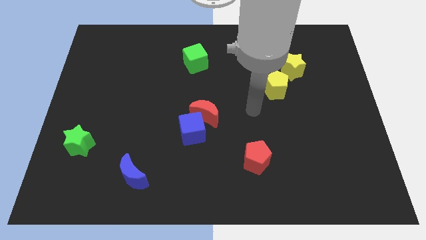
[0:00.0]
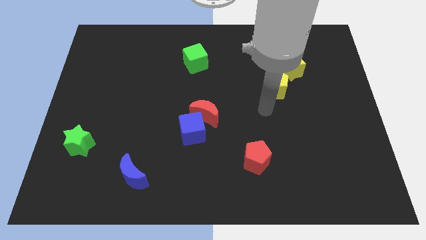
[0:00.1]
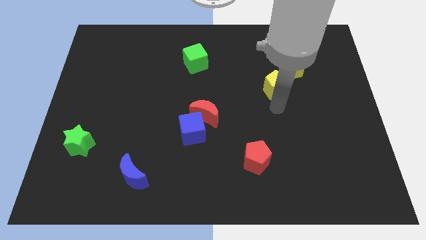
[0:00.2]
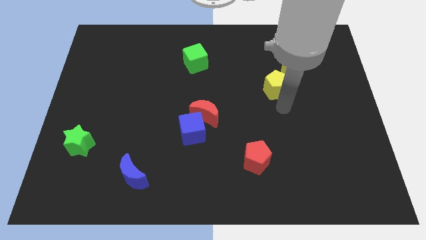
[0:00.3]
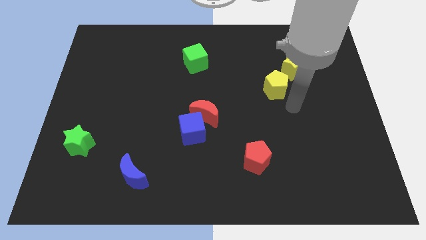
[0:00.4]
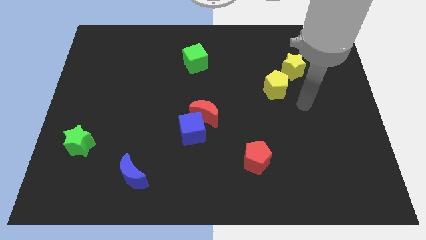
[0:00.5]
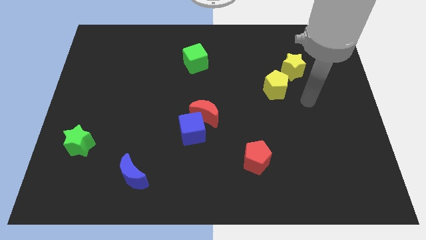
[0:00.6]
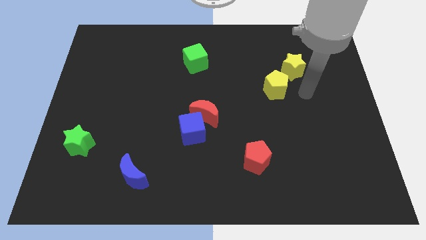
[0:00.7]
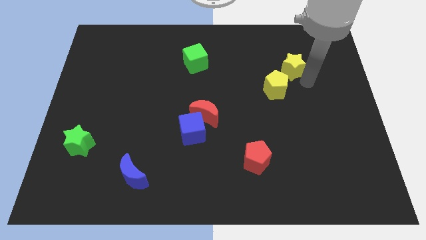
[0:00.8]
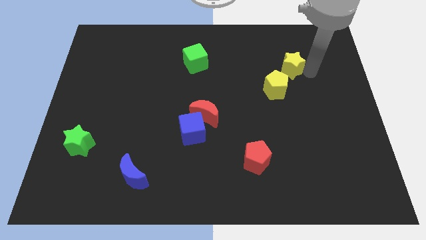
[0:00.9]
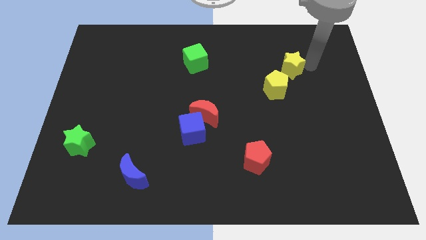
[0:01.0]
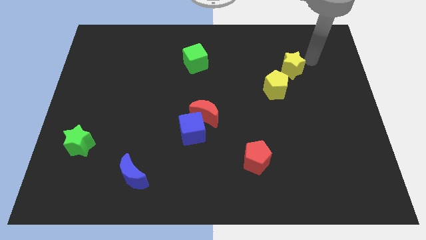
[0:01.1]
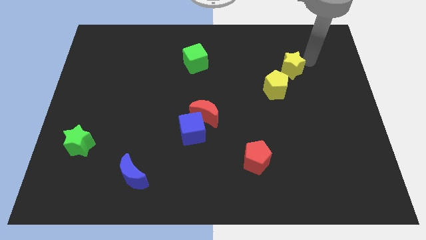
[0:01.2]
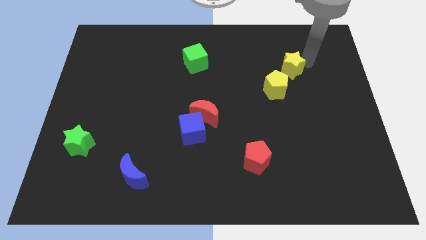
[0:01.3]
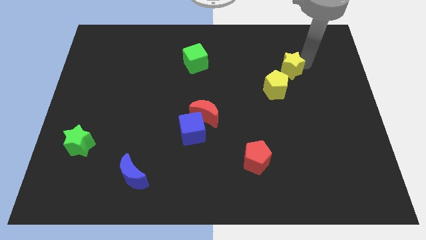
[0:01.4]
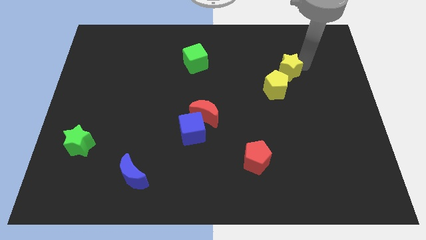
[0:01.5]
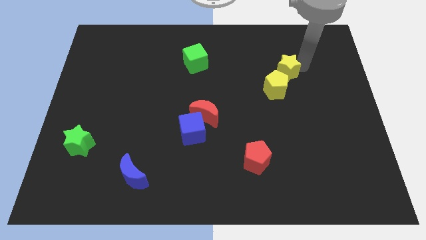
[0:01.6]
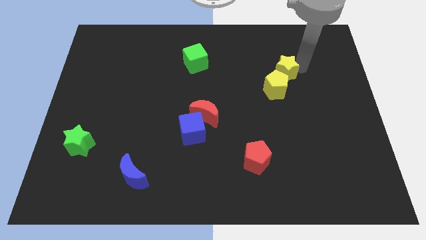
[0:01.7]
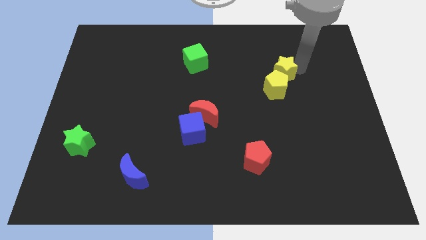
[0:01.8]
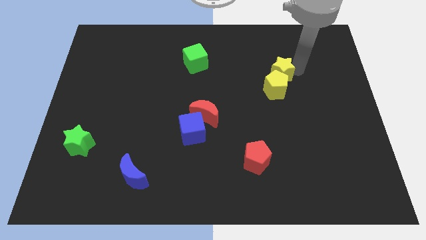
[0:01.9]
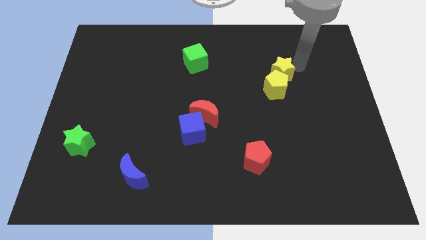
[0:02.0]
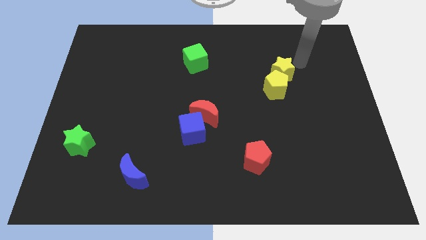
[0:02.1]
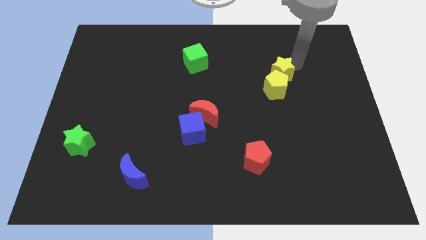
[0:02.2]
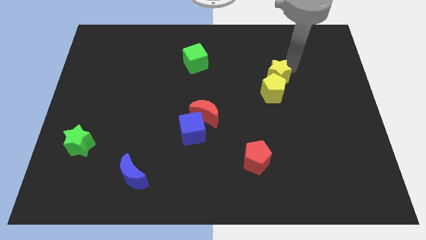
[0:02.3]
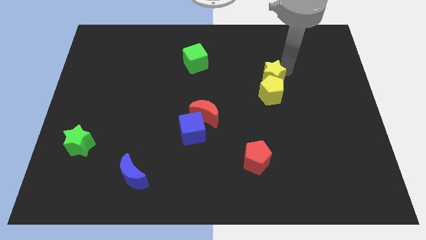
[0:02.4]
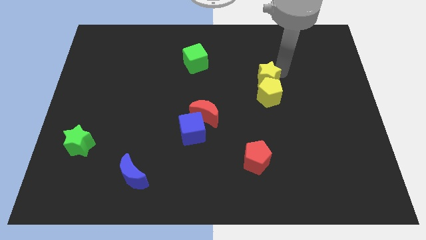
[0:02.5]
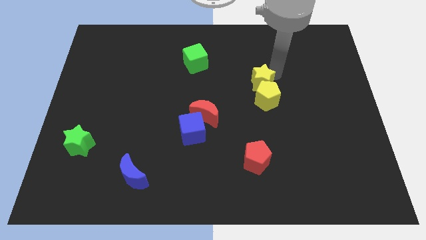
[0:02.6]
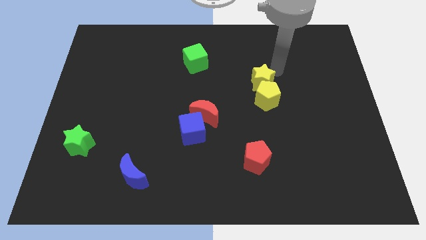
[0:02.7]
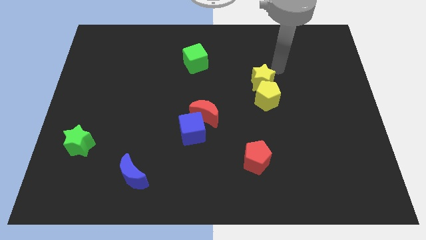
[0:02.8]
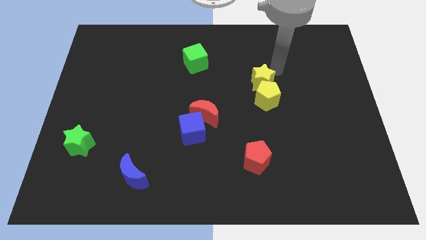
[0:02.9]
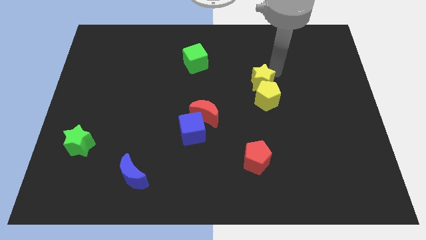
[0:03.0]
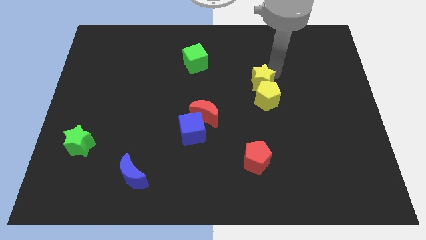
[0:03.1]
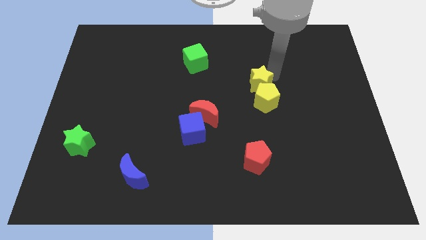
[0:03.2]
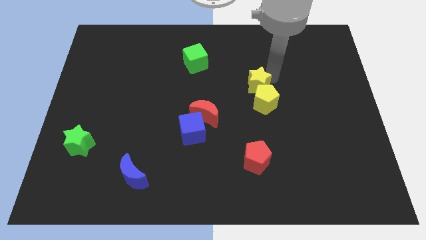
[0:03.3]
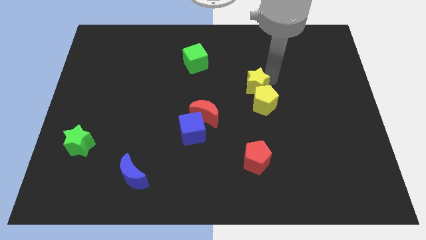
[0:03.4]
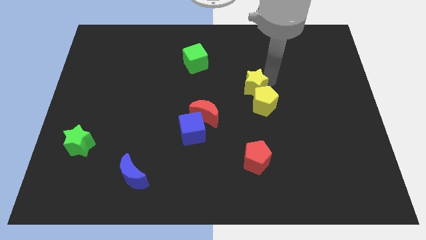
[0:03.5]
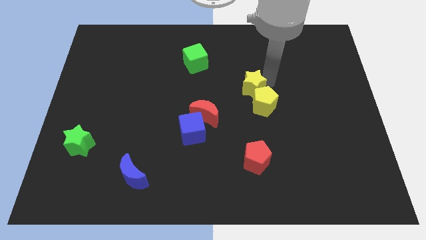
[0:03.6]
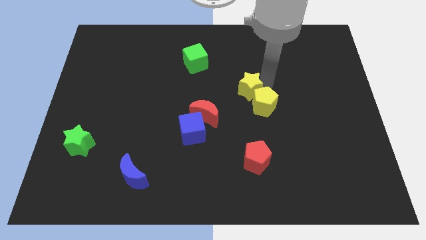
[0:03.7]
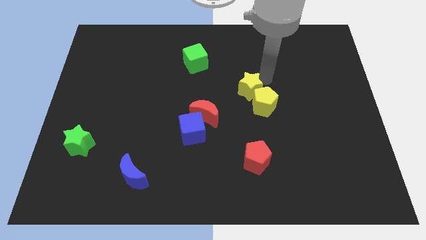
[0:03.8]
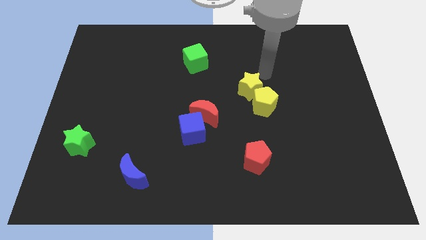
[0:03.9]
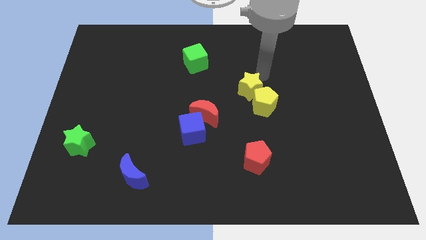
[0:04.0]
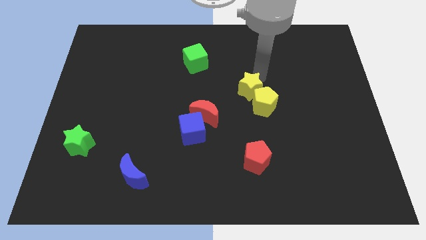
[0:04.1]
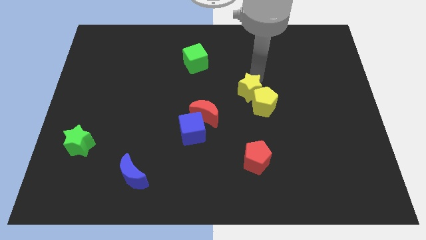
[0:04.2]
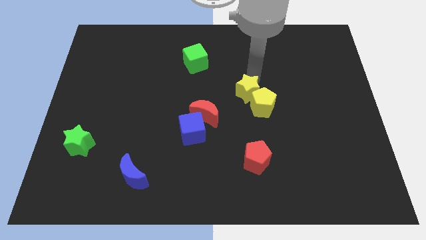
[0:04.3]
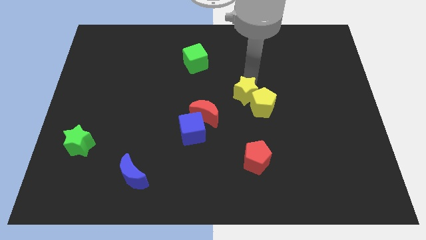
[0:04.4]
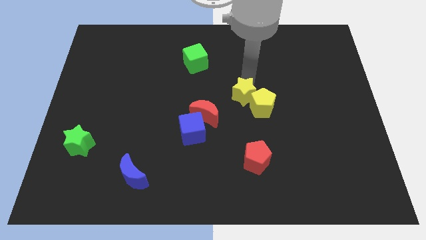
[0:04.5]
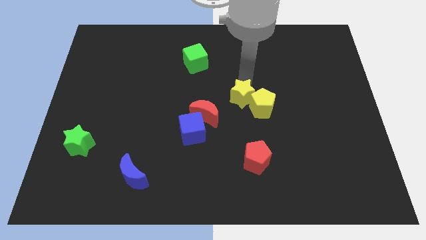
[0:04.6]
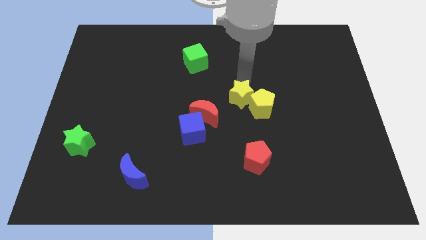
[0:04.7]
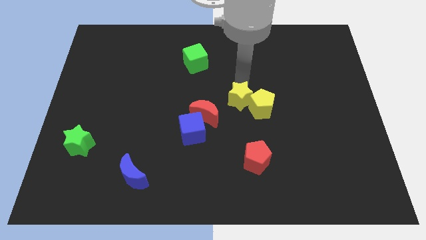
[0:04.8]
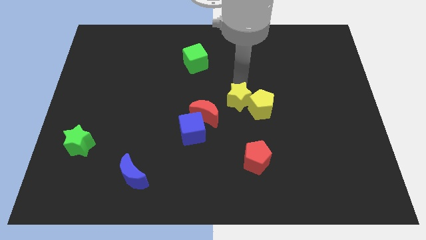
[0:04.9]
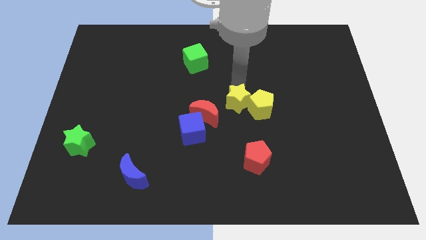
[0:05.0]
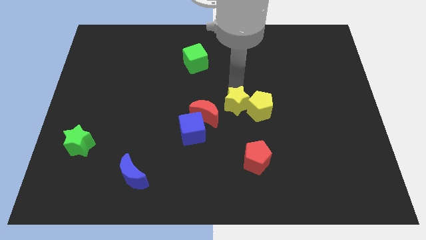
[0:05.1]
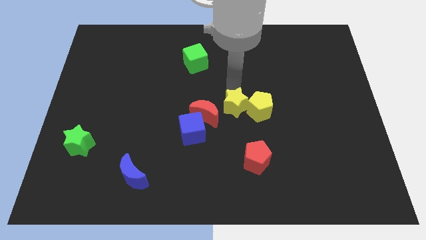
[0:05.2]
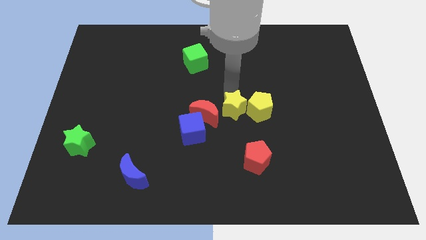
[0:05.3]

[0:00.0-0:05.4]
push the yellow star diagonally down and left

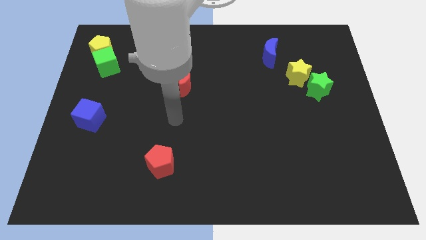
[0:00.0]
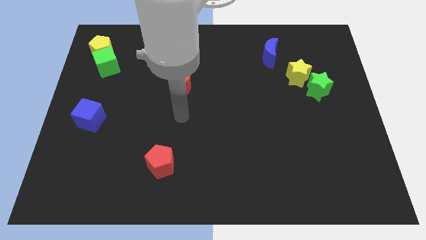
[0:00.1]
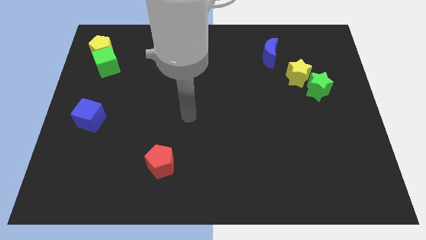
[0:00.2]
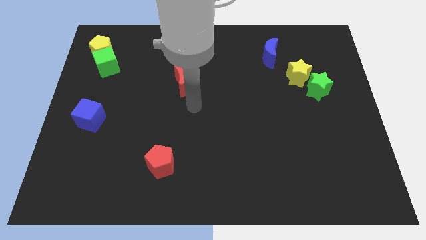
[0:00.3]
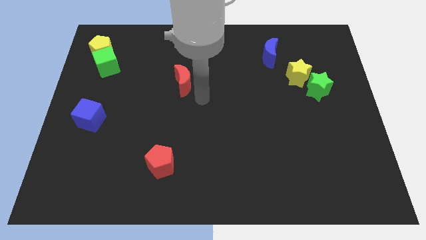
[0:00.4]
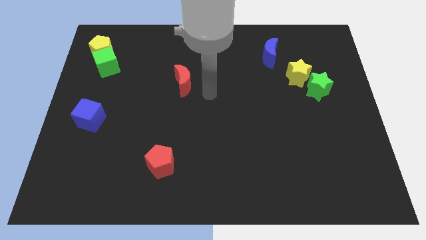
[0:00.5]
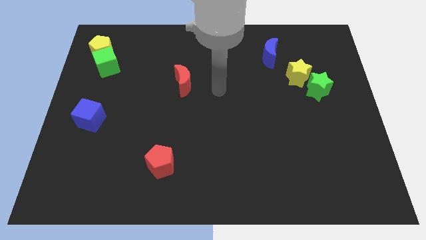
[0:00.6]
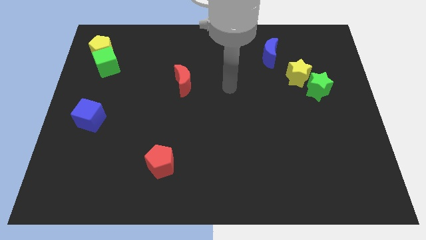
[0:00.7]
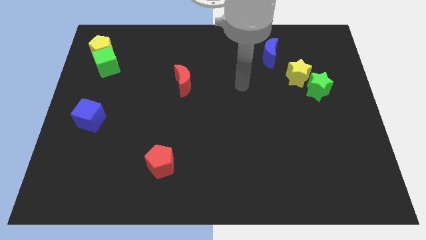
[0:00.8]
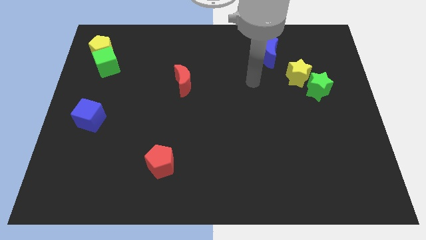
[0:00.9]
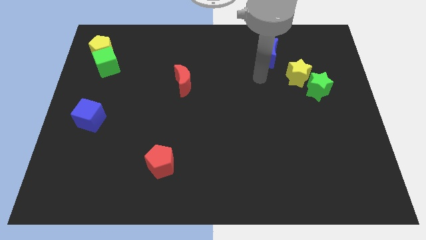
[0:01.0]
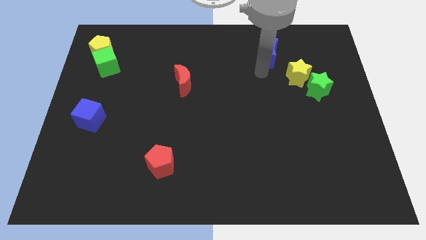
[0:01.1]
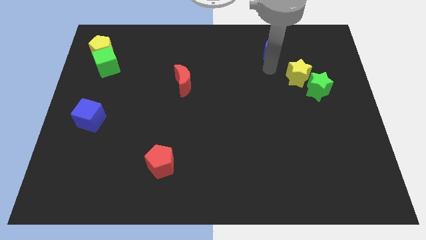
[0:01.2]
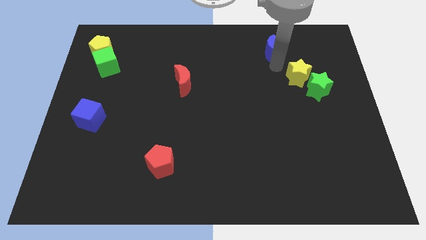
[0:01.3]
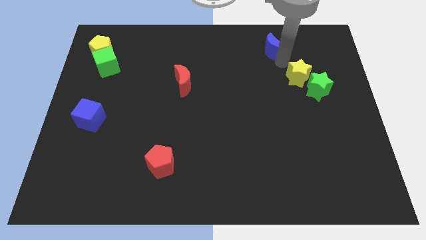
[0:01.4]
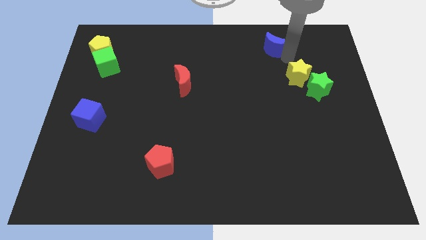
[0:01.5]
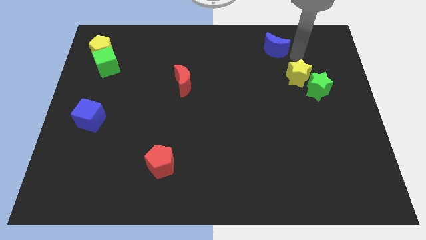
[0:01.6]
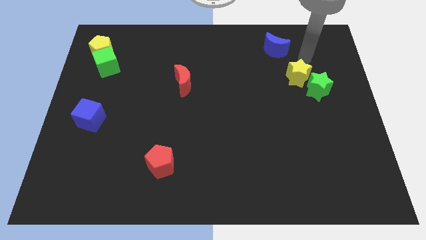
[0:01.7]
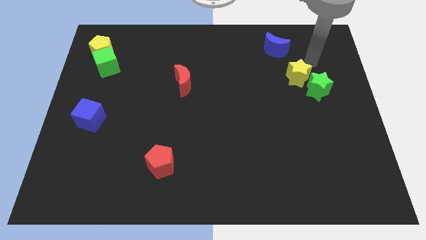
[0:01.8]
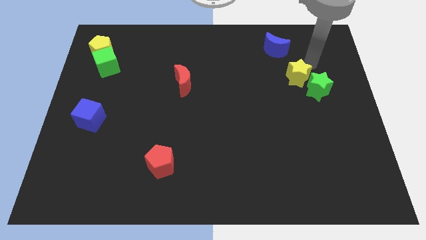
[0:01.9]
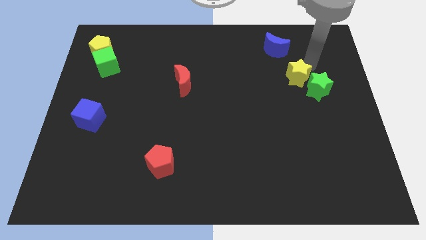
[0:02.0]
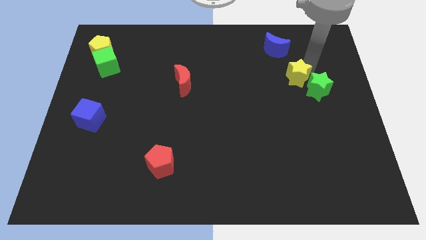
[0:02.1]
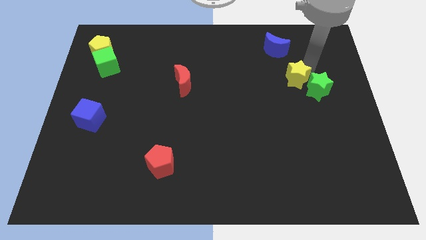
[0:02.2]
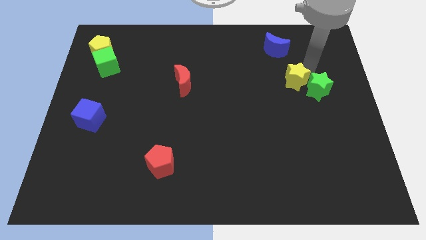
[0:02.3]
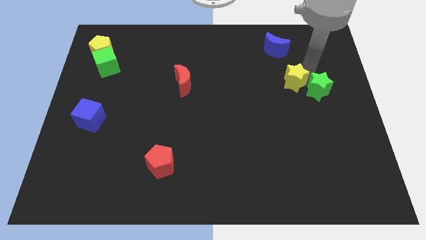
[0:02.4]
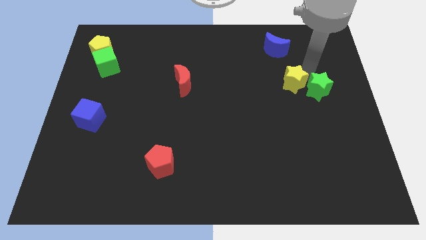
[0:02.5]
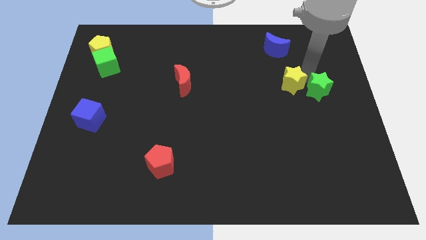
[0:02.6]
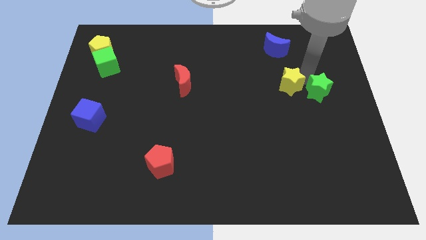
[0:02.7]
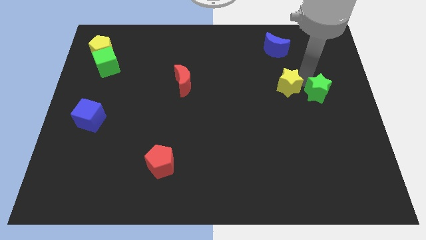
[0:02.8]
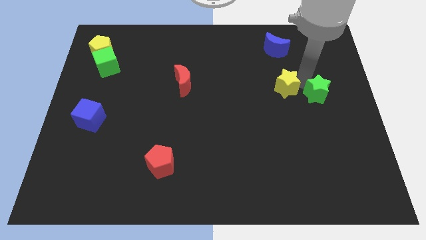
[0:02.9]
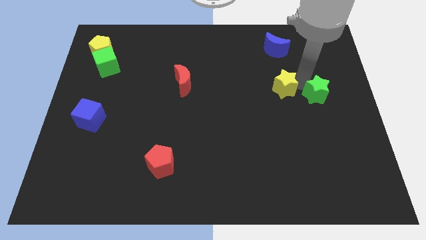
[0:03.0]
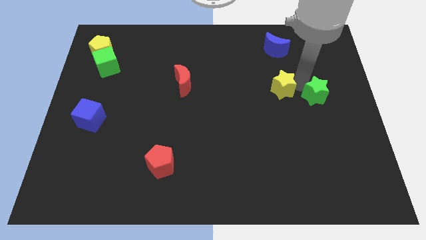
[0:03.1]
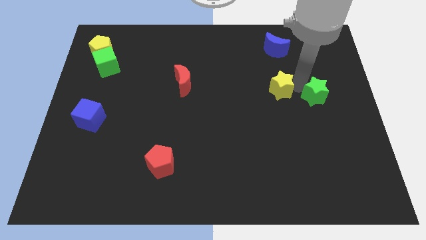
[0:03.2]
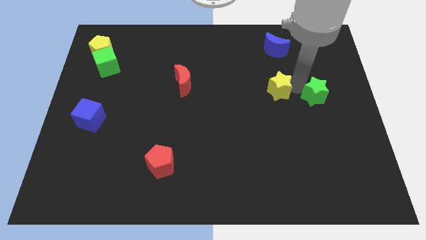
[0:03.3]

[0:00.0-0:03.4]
move the yellow star diagonally downwards and to the left a bit
